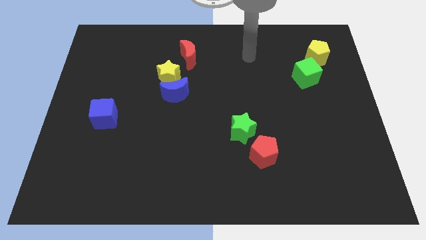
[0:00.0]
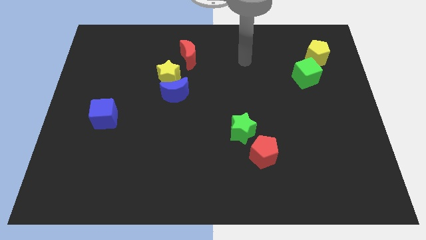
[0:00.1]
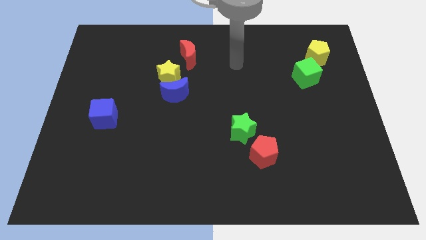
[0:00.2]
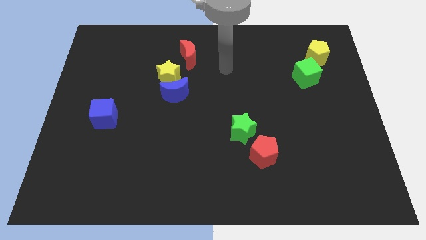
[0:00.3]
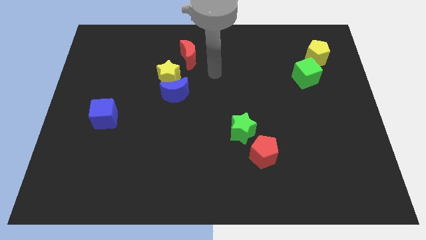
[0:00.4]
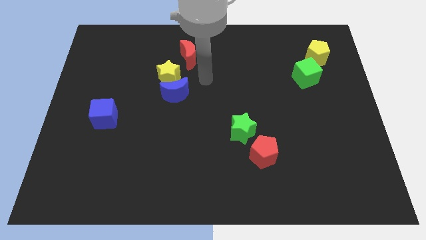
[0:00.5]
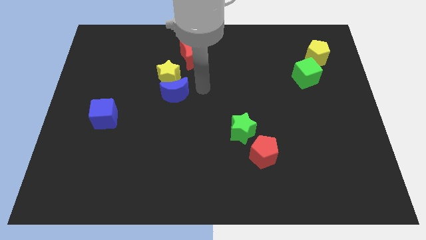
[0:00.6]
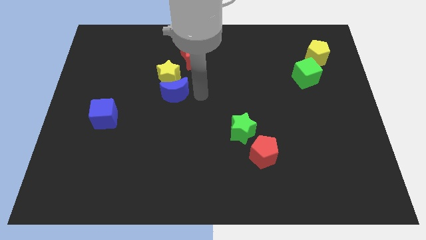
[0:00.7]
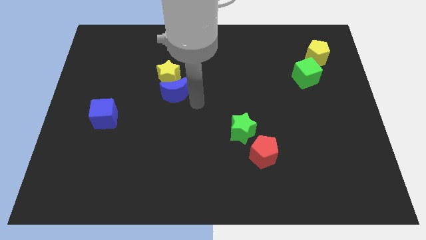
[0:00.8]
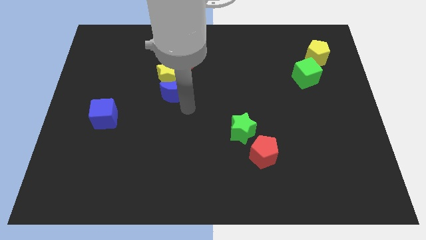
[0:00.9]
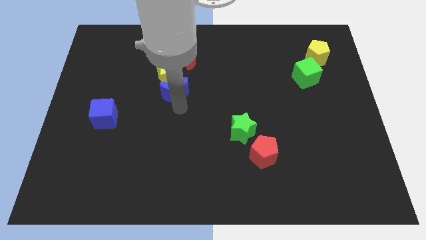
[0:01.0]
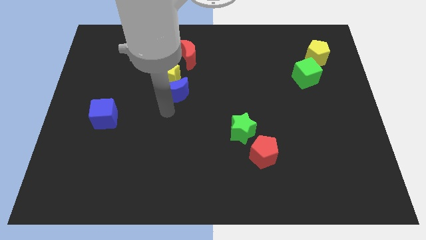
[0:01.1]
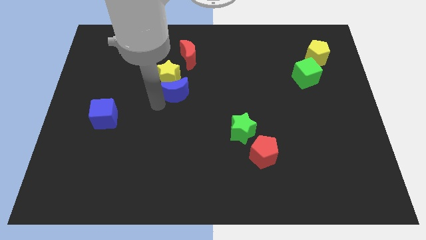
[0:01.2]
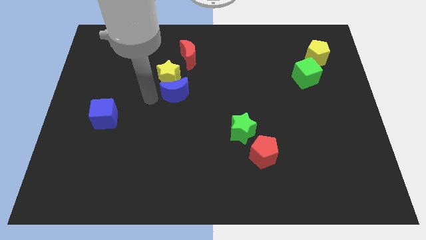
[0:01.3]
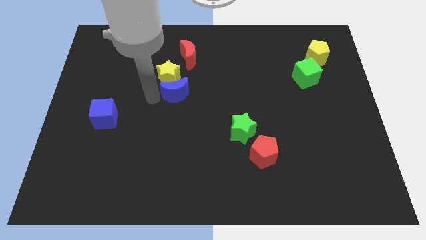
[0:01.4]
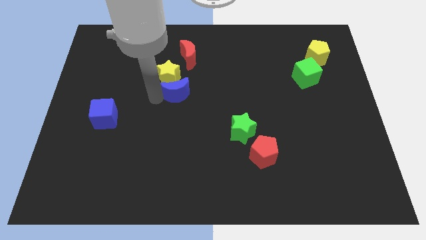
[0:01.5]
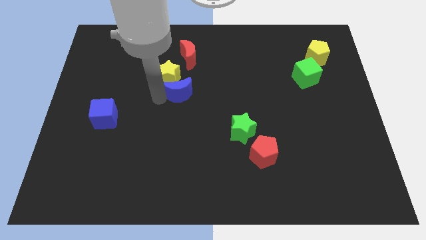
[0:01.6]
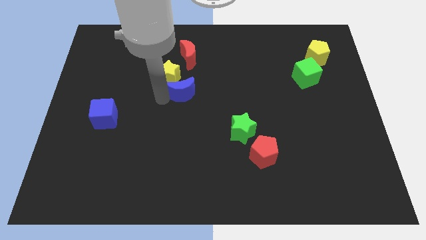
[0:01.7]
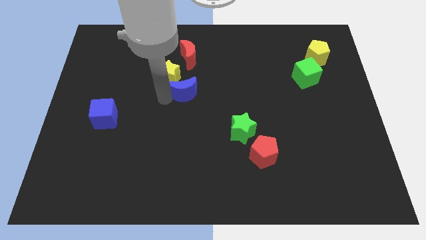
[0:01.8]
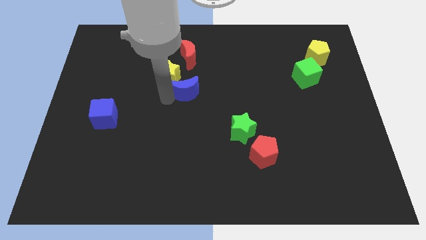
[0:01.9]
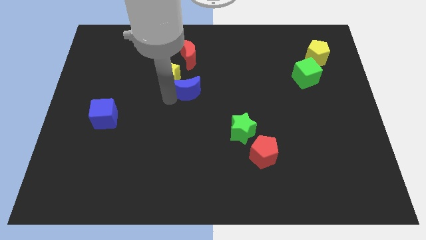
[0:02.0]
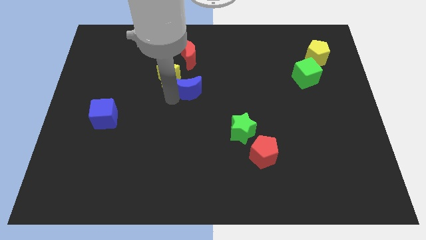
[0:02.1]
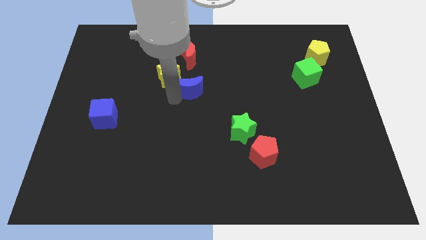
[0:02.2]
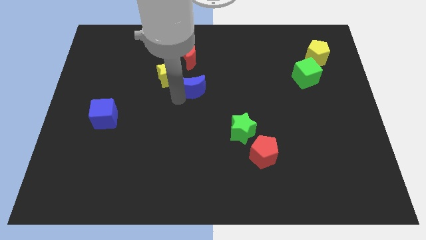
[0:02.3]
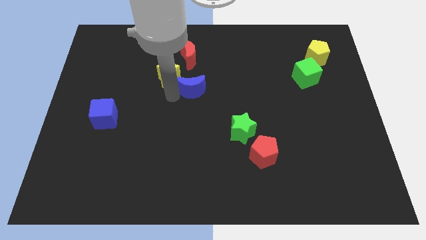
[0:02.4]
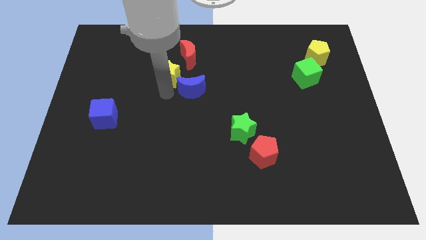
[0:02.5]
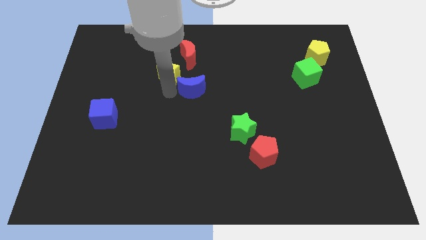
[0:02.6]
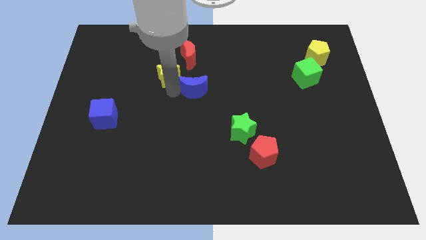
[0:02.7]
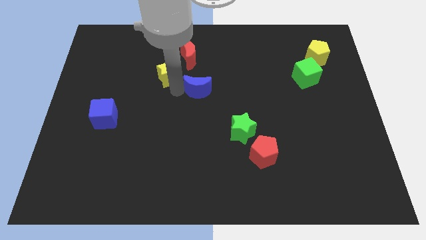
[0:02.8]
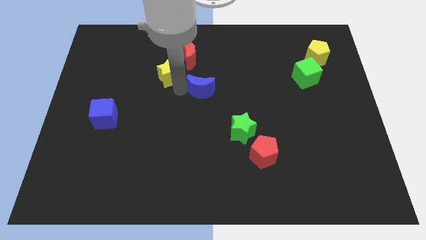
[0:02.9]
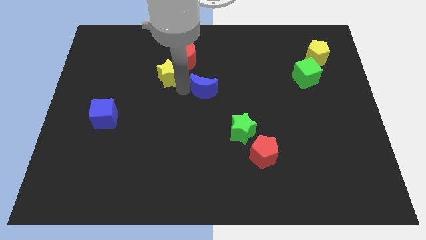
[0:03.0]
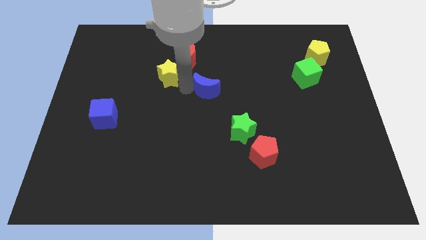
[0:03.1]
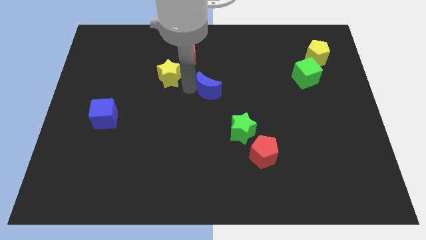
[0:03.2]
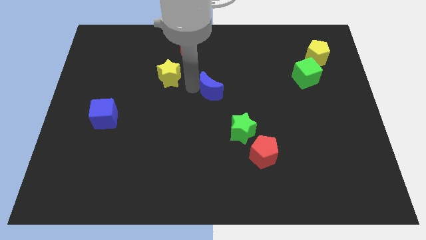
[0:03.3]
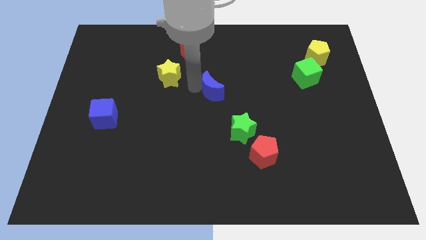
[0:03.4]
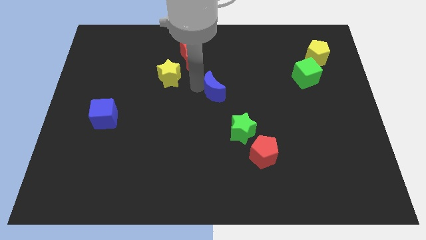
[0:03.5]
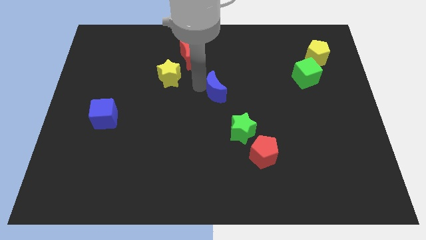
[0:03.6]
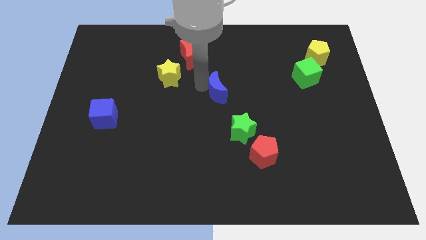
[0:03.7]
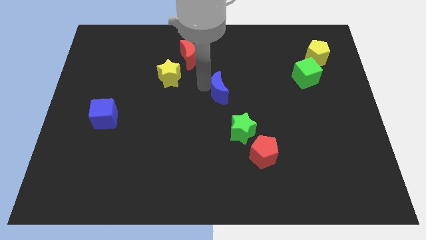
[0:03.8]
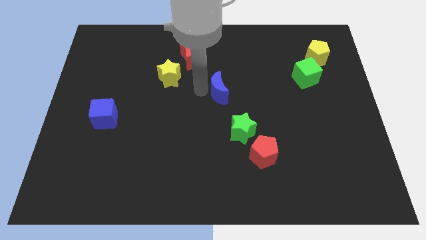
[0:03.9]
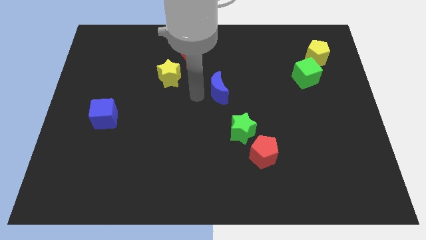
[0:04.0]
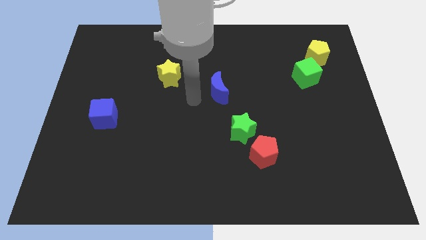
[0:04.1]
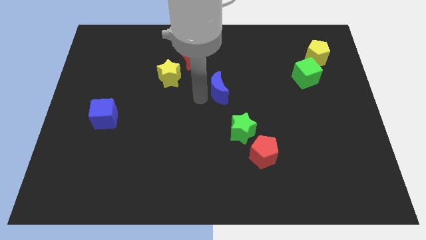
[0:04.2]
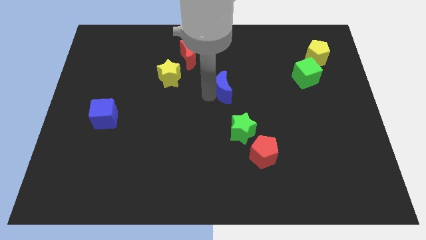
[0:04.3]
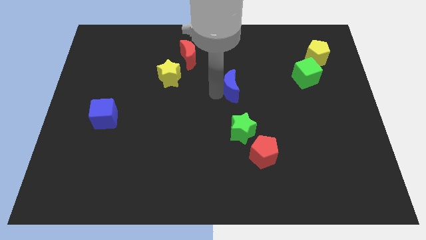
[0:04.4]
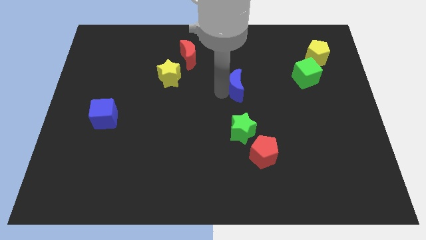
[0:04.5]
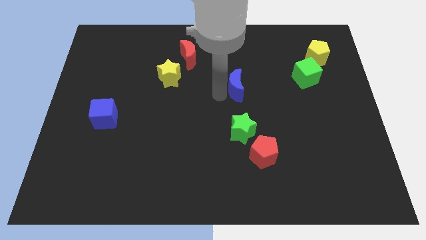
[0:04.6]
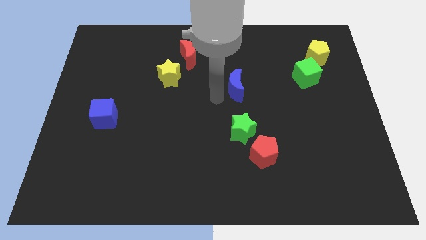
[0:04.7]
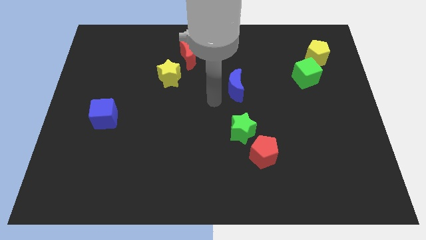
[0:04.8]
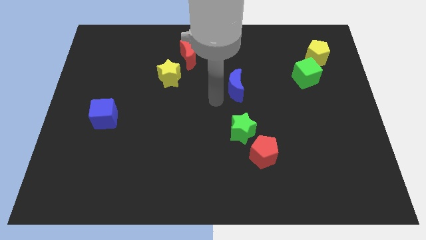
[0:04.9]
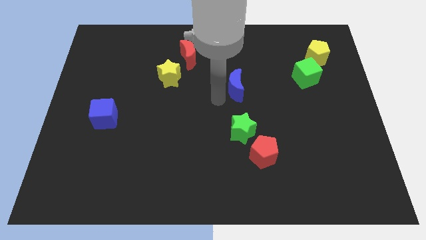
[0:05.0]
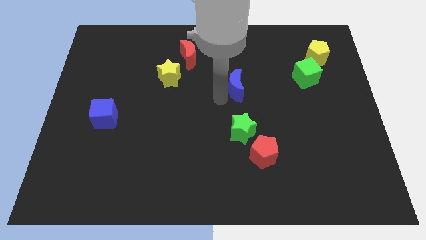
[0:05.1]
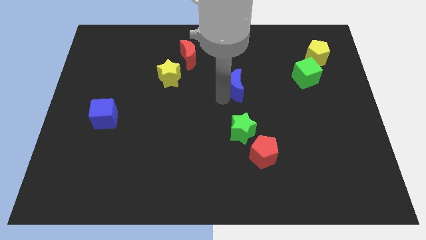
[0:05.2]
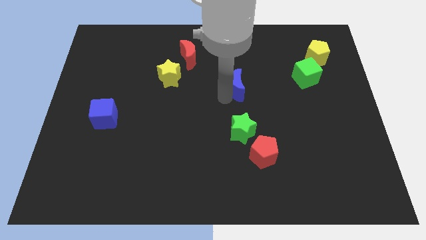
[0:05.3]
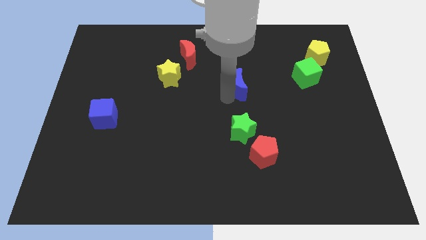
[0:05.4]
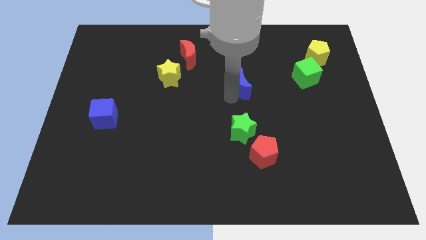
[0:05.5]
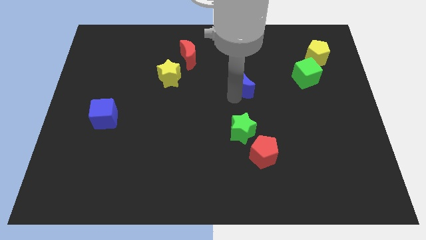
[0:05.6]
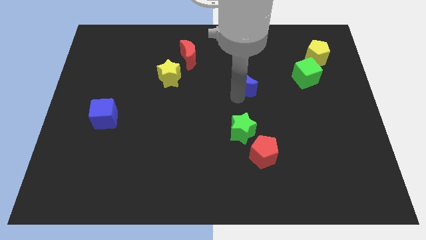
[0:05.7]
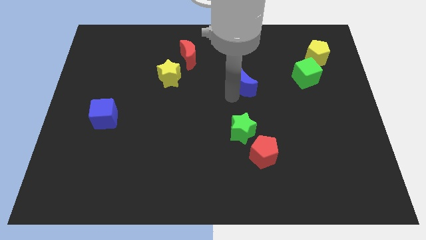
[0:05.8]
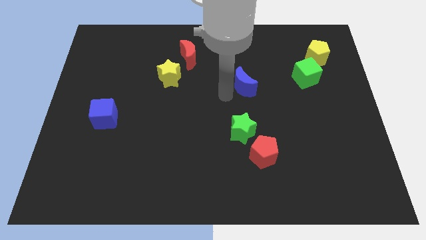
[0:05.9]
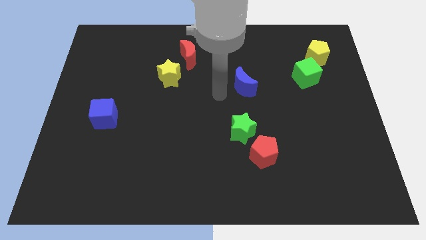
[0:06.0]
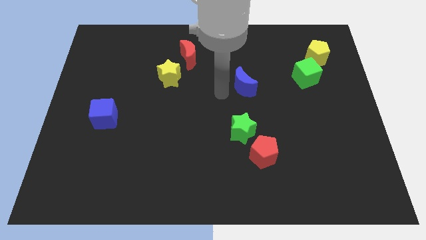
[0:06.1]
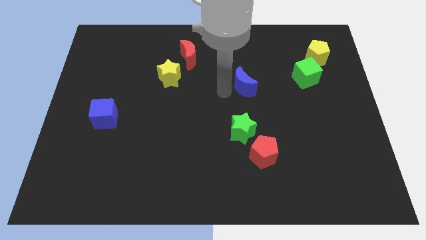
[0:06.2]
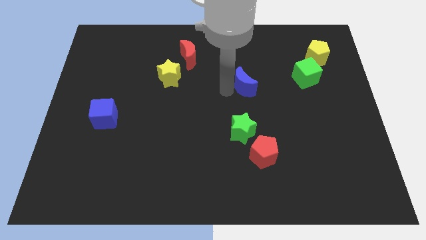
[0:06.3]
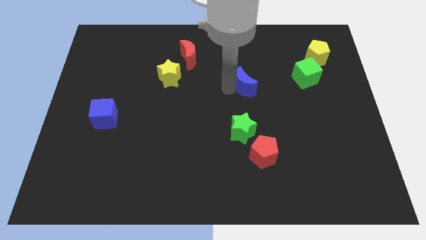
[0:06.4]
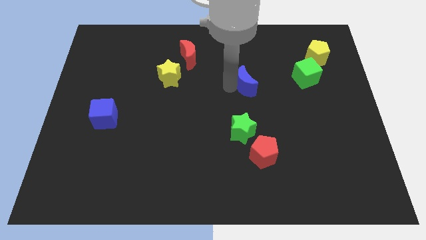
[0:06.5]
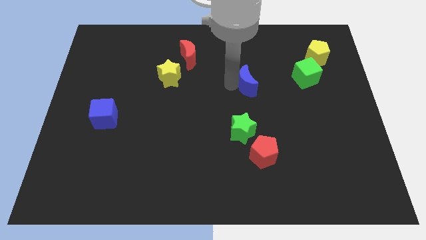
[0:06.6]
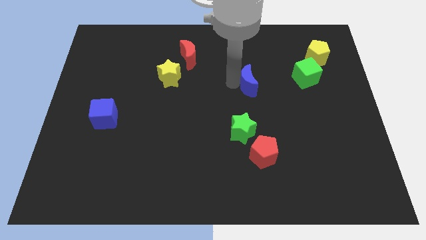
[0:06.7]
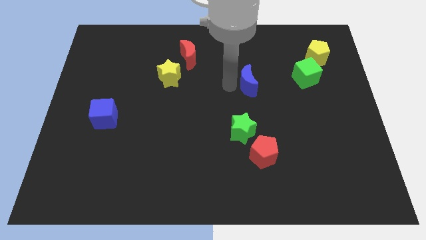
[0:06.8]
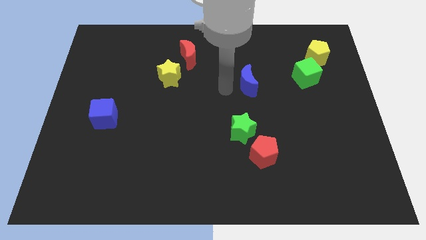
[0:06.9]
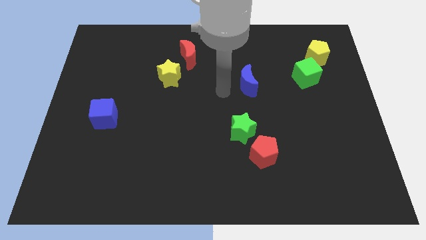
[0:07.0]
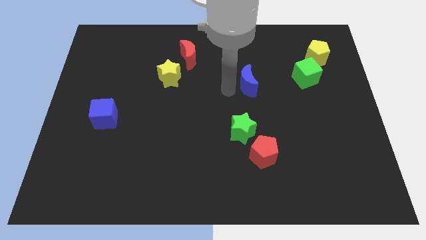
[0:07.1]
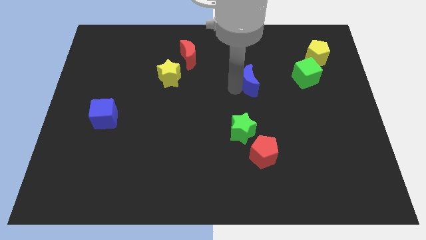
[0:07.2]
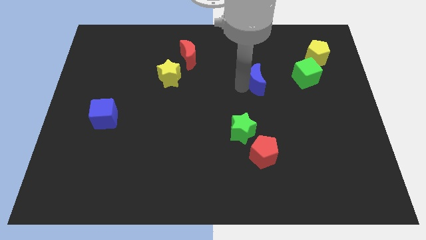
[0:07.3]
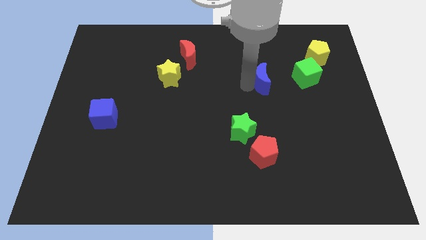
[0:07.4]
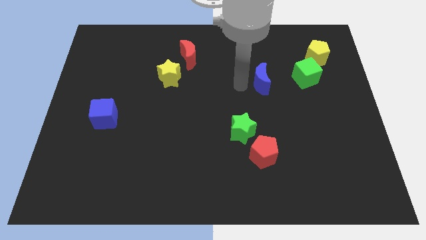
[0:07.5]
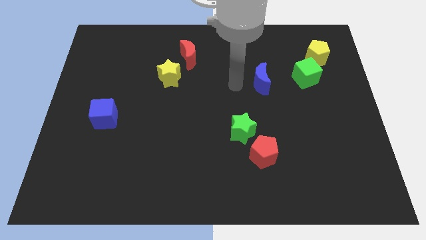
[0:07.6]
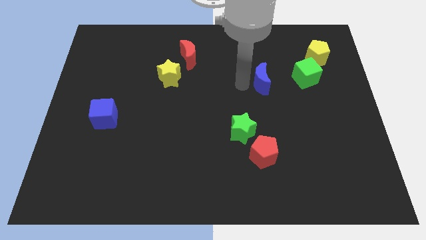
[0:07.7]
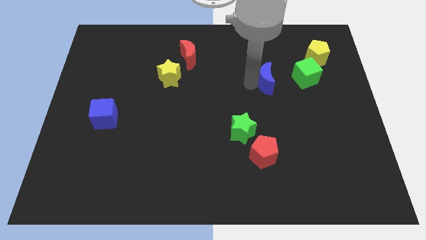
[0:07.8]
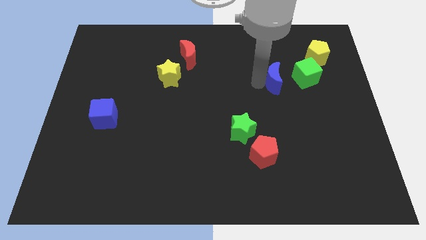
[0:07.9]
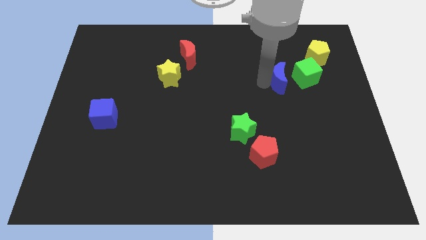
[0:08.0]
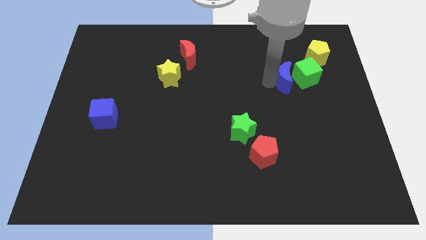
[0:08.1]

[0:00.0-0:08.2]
push the blue moon to the bottom left side of the yellow pentagon
